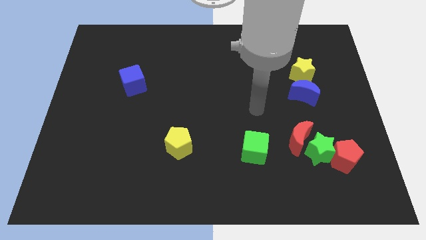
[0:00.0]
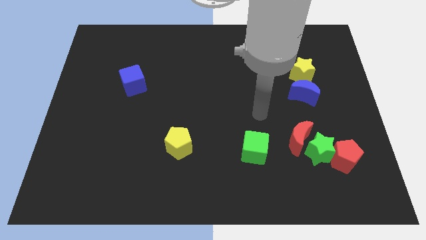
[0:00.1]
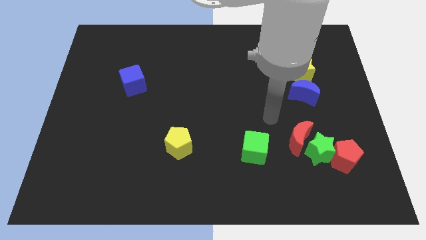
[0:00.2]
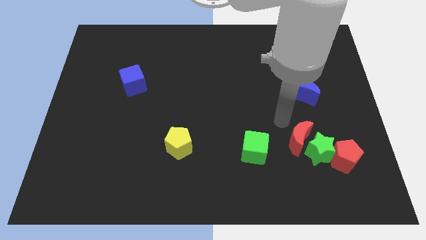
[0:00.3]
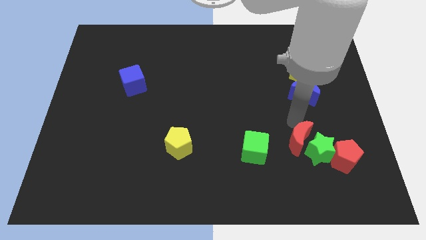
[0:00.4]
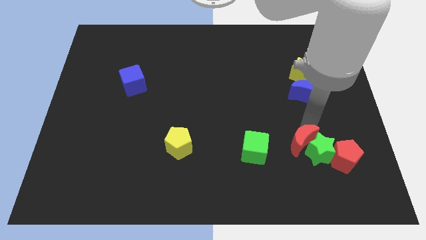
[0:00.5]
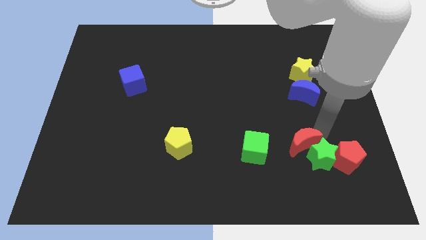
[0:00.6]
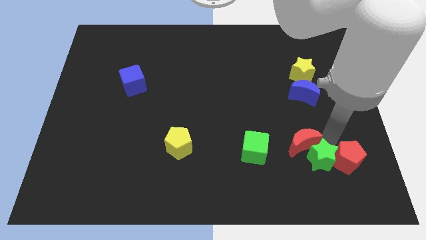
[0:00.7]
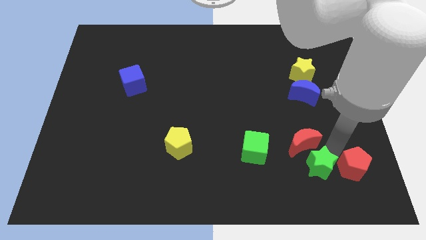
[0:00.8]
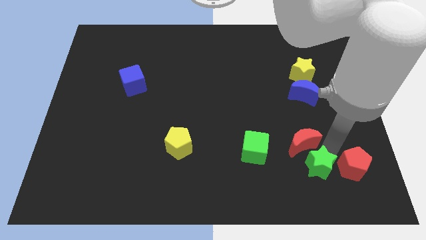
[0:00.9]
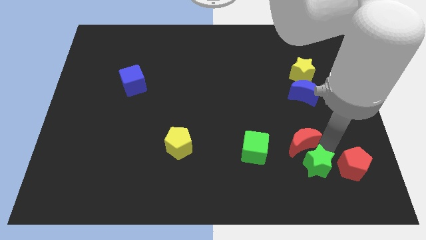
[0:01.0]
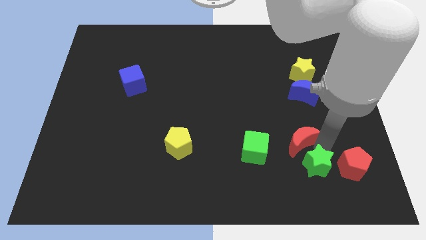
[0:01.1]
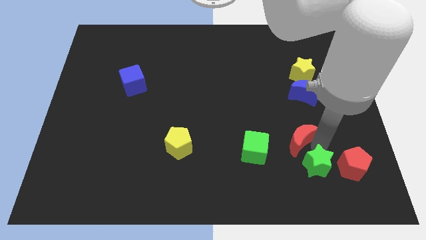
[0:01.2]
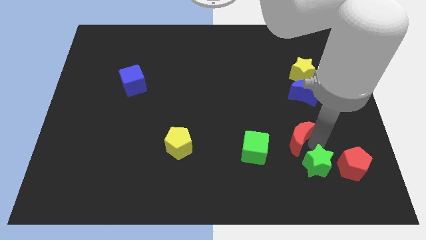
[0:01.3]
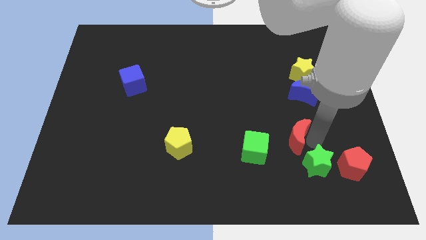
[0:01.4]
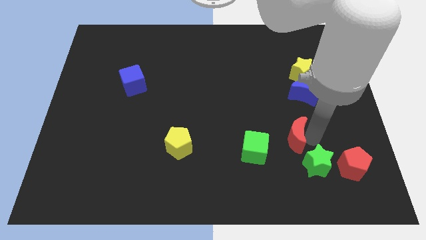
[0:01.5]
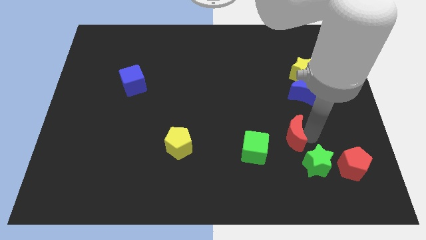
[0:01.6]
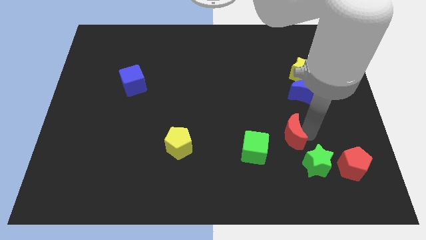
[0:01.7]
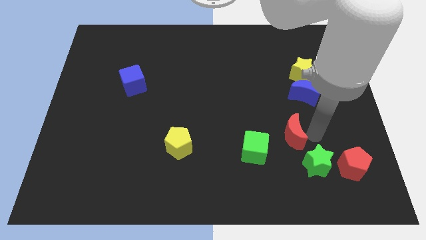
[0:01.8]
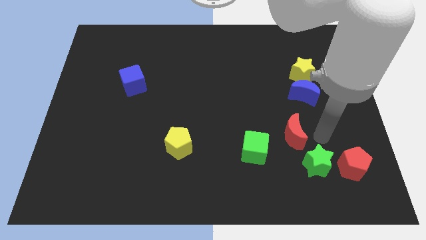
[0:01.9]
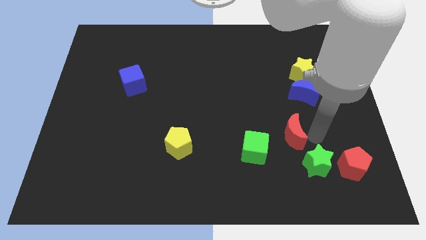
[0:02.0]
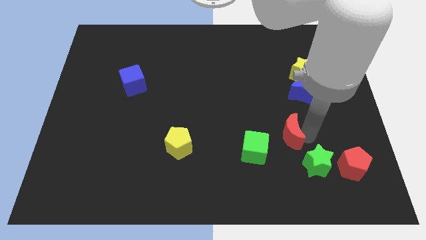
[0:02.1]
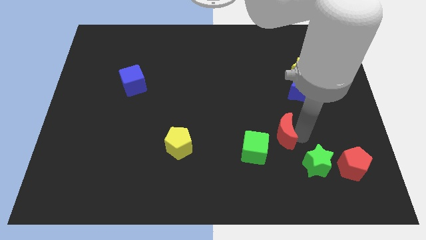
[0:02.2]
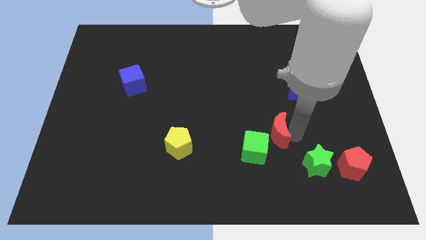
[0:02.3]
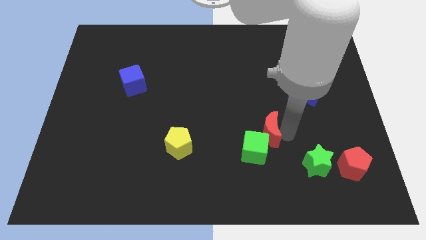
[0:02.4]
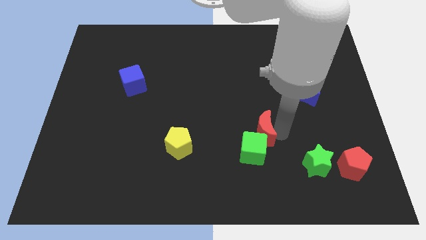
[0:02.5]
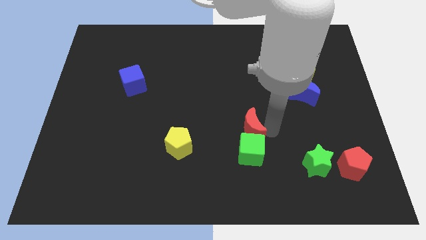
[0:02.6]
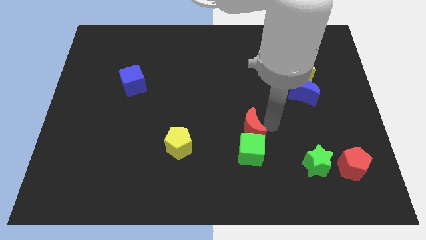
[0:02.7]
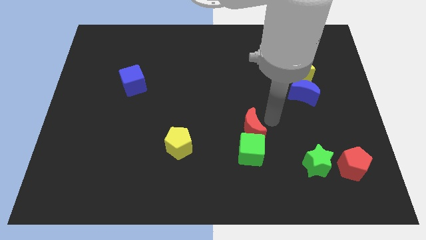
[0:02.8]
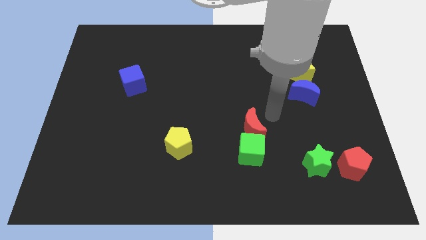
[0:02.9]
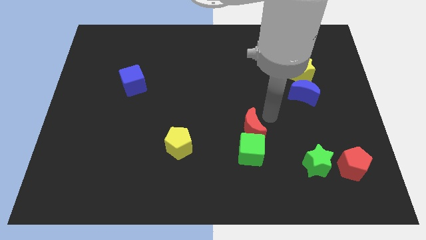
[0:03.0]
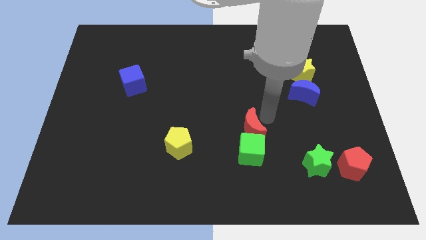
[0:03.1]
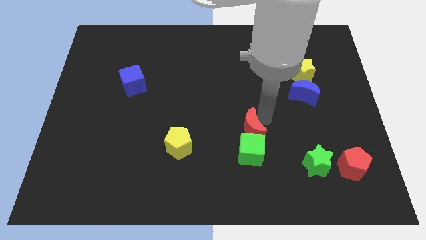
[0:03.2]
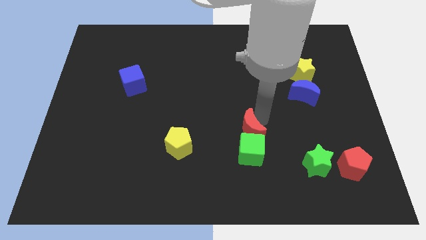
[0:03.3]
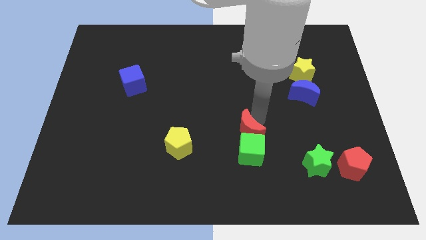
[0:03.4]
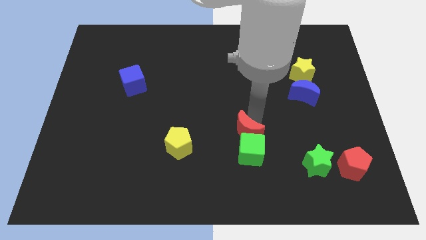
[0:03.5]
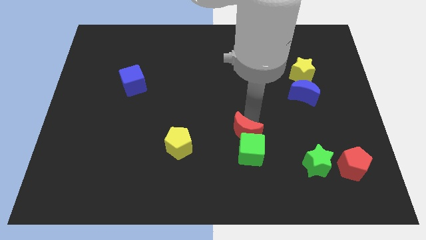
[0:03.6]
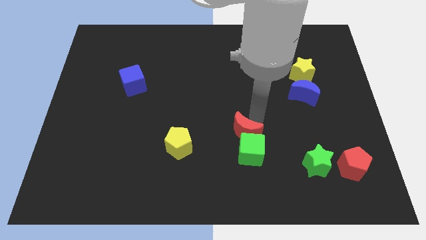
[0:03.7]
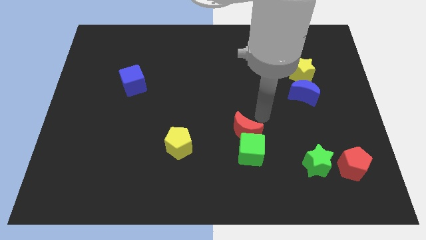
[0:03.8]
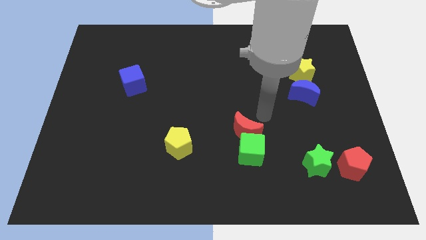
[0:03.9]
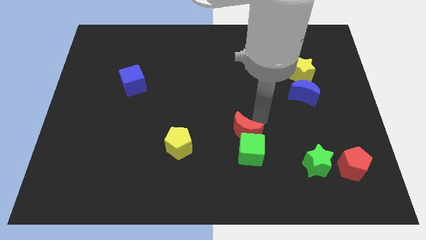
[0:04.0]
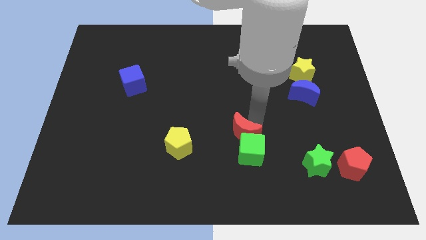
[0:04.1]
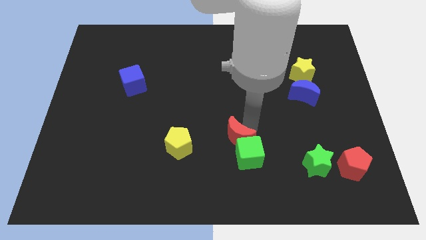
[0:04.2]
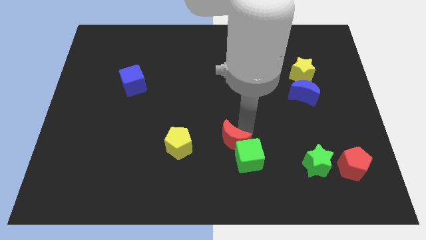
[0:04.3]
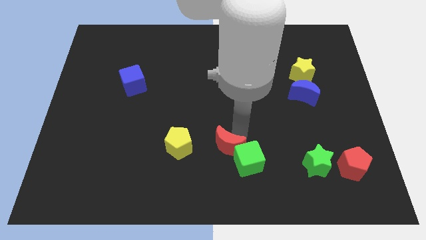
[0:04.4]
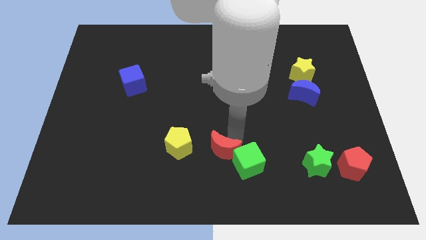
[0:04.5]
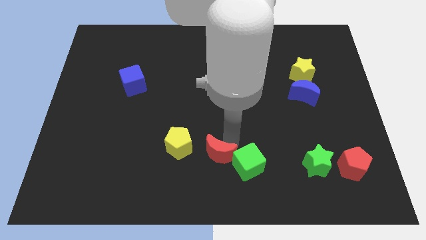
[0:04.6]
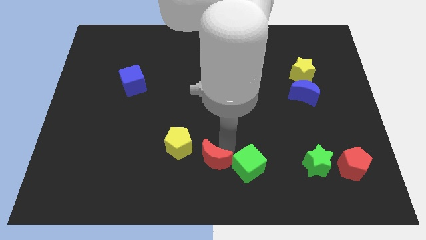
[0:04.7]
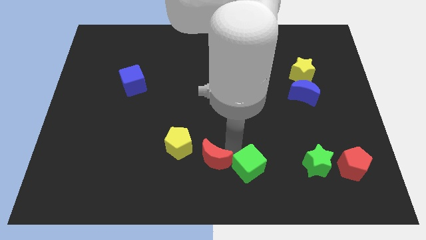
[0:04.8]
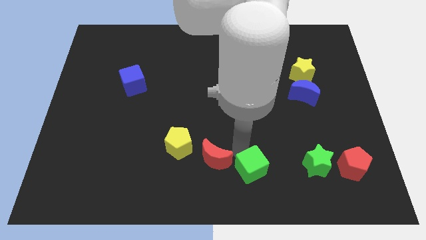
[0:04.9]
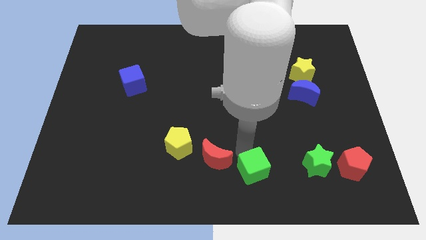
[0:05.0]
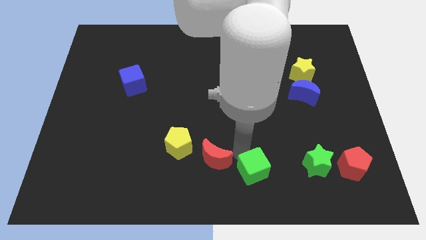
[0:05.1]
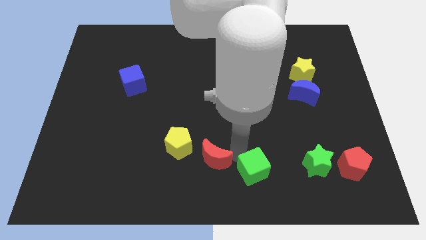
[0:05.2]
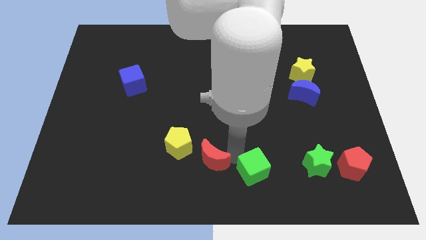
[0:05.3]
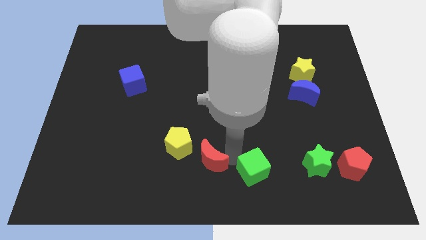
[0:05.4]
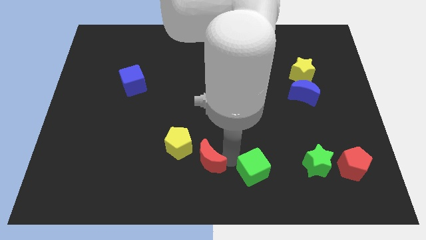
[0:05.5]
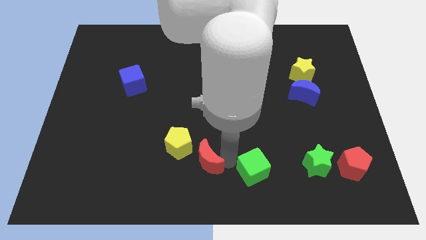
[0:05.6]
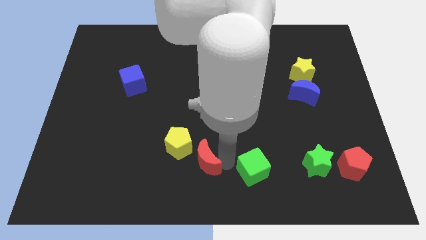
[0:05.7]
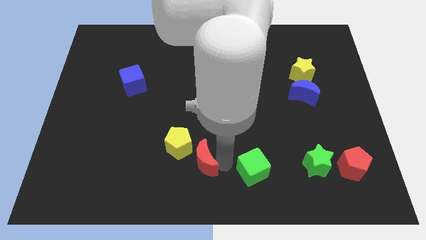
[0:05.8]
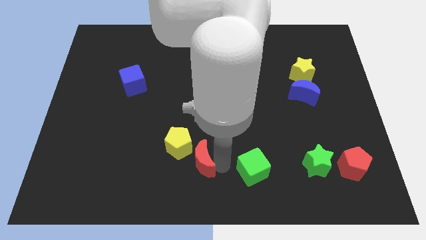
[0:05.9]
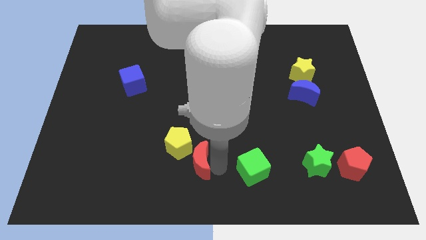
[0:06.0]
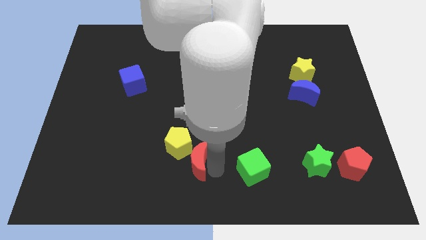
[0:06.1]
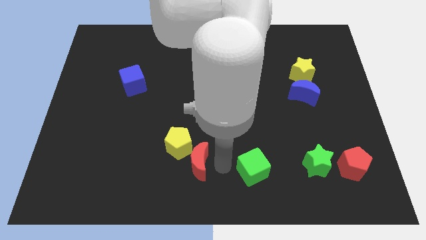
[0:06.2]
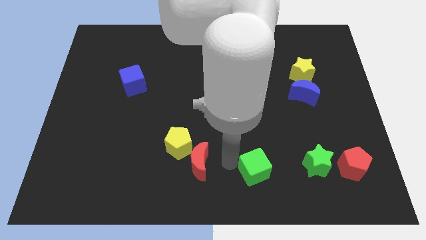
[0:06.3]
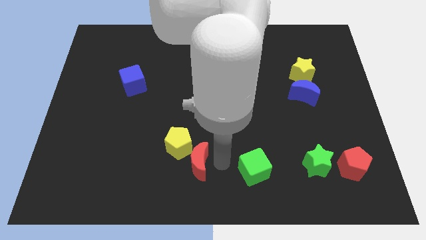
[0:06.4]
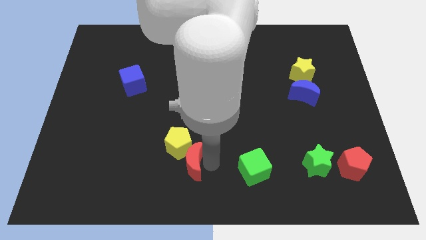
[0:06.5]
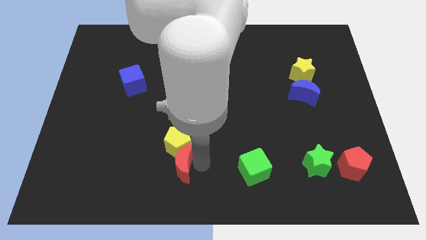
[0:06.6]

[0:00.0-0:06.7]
move the red moon diagonally down and to the left of the yellow pentagon

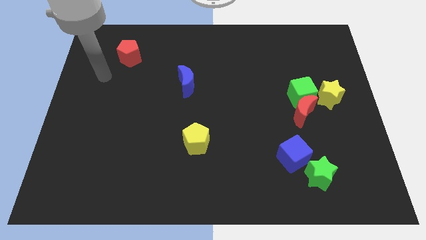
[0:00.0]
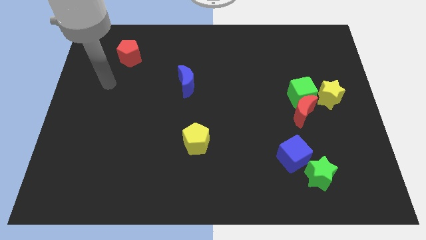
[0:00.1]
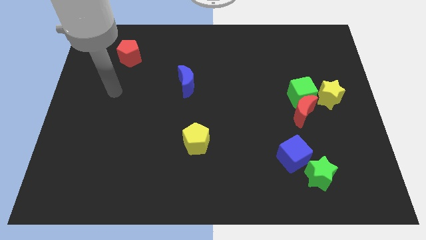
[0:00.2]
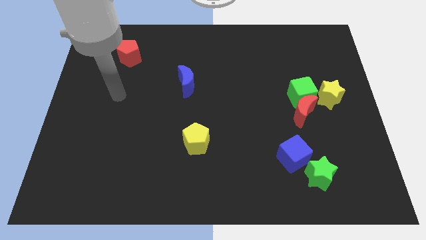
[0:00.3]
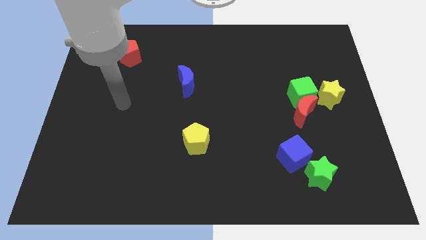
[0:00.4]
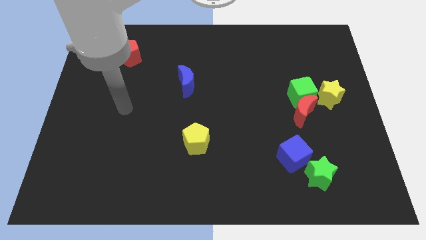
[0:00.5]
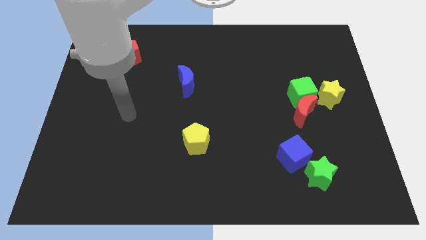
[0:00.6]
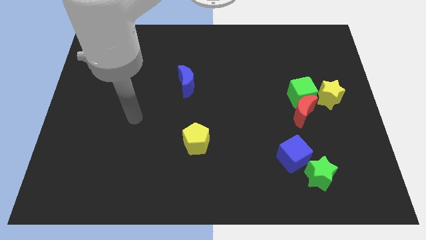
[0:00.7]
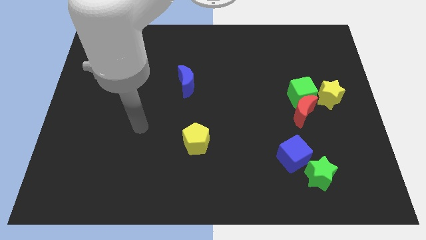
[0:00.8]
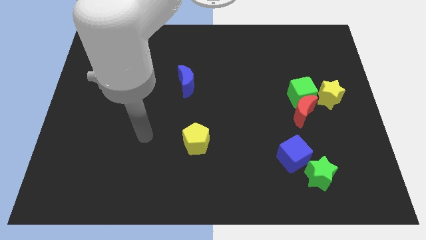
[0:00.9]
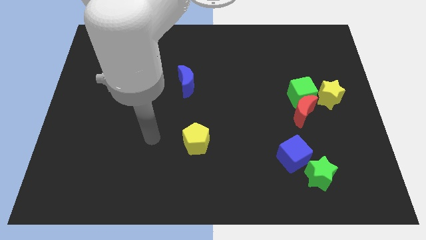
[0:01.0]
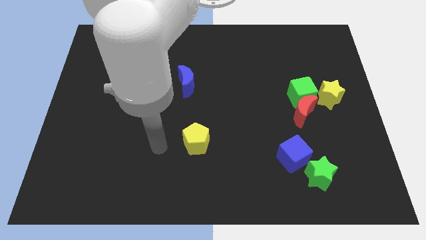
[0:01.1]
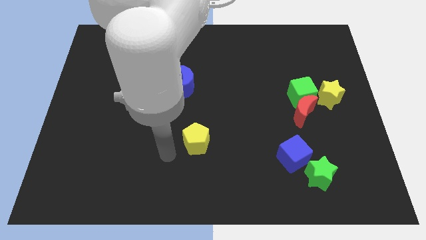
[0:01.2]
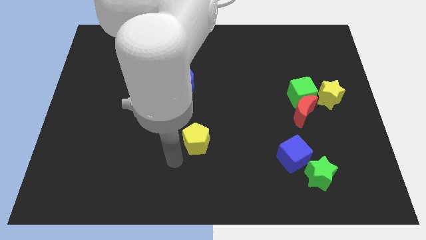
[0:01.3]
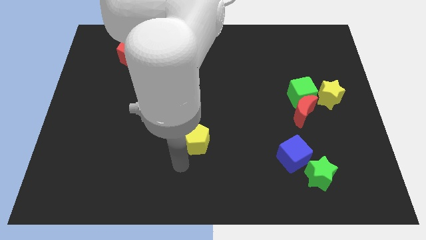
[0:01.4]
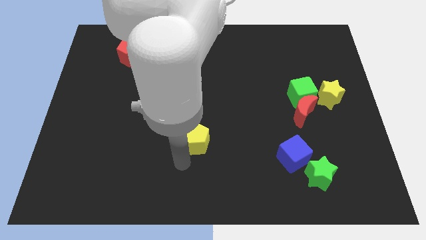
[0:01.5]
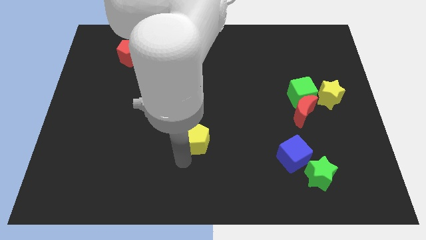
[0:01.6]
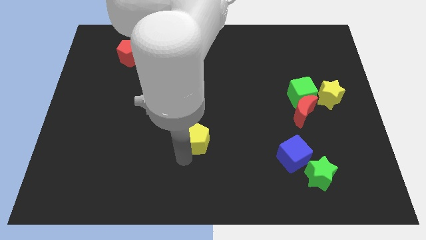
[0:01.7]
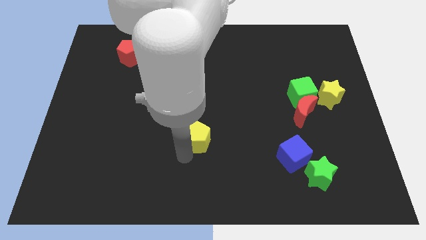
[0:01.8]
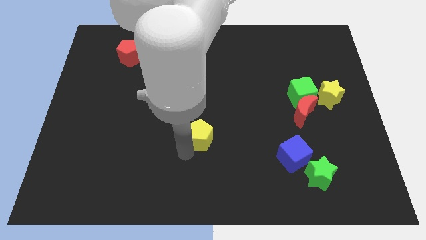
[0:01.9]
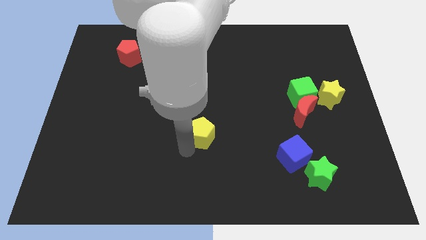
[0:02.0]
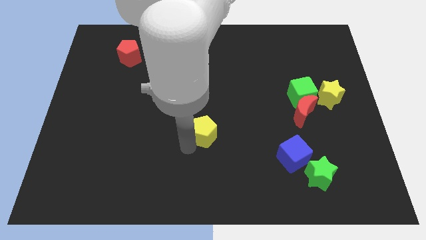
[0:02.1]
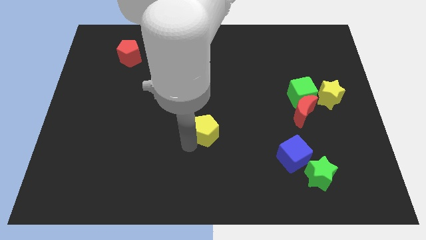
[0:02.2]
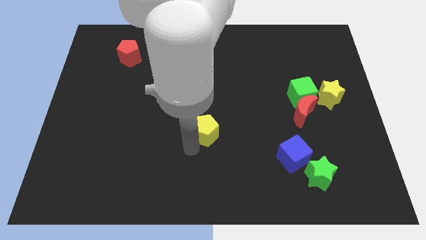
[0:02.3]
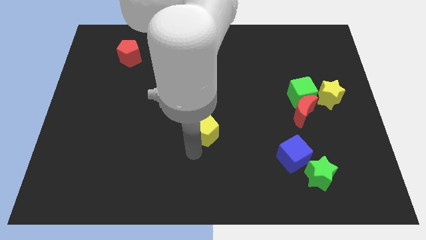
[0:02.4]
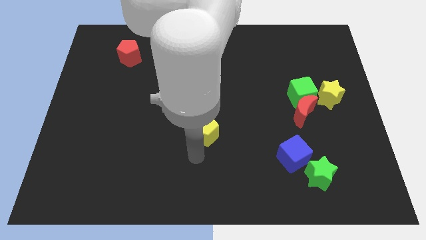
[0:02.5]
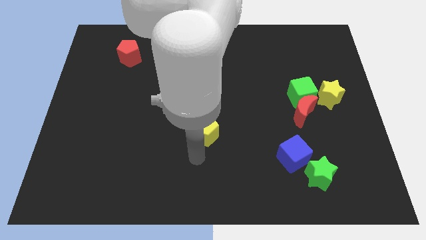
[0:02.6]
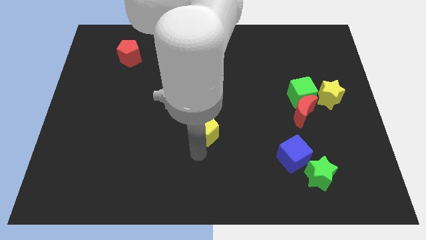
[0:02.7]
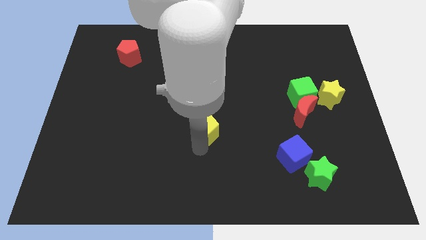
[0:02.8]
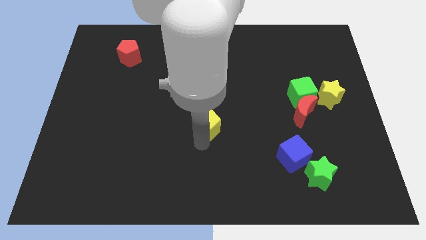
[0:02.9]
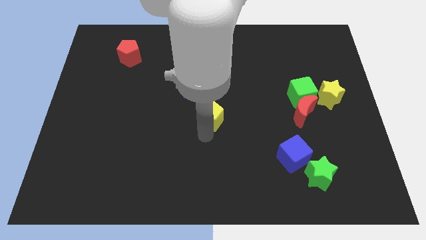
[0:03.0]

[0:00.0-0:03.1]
slide the yellow pentagon diagonally down and to the right of the blue moon
